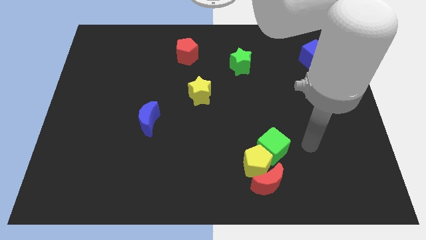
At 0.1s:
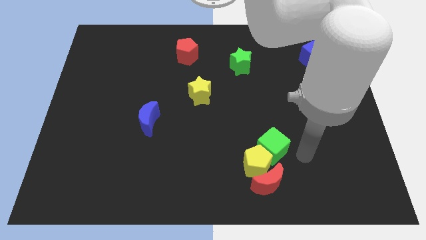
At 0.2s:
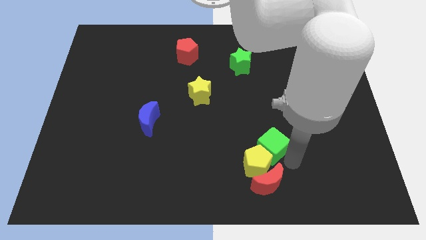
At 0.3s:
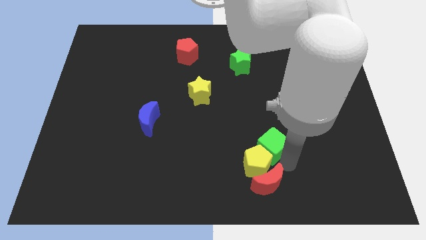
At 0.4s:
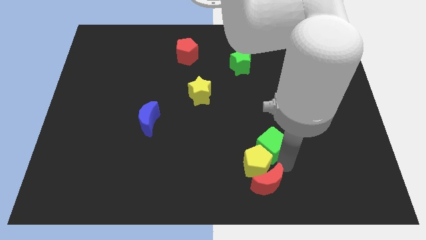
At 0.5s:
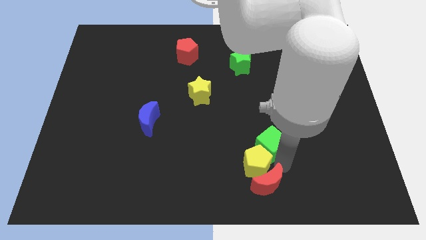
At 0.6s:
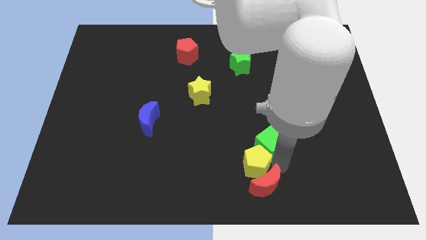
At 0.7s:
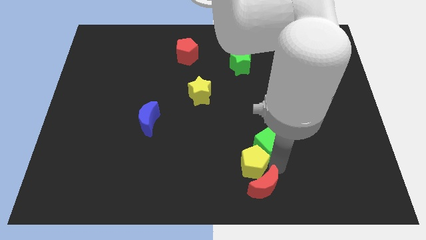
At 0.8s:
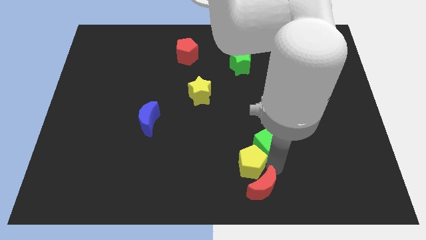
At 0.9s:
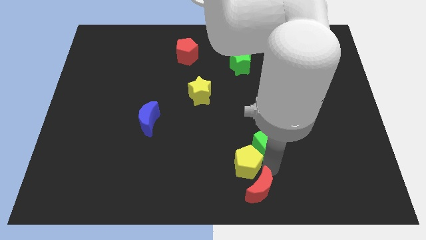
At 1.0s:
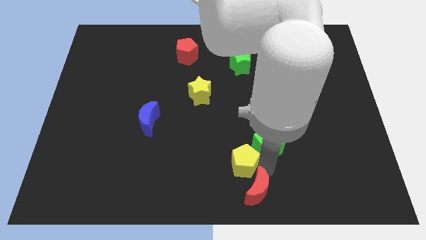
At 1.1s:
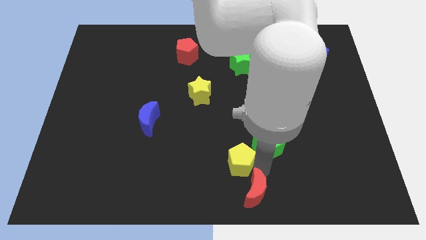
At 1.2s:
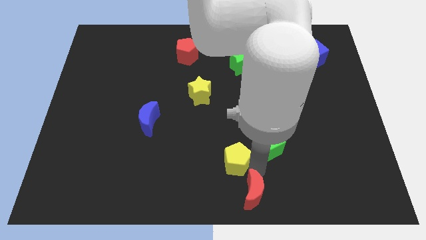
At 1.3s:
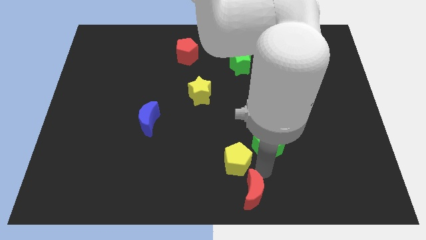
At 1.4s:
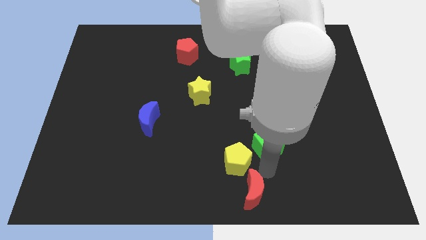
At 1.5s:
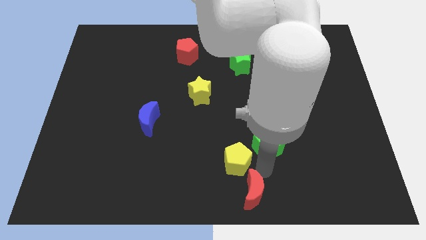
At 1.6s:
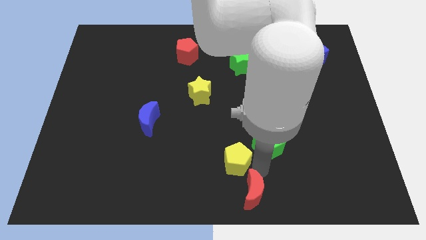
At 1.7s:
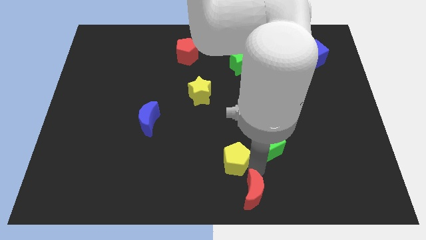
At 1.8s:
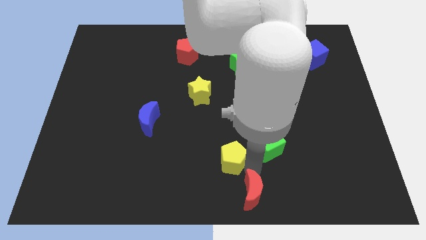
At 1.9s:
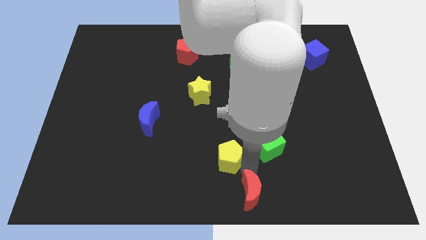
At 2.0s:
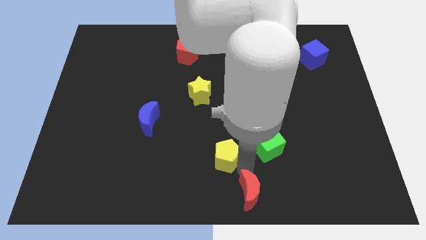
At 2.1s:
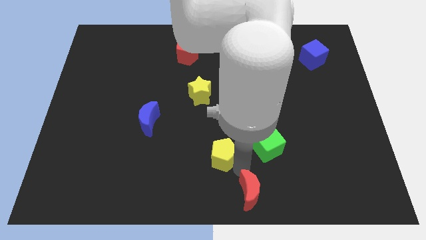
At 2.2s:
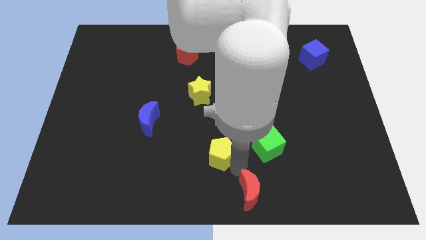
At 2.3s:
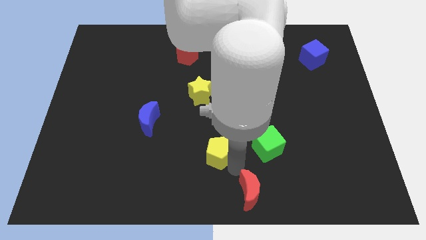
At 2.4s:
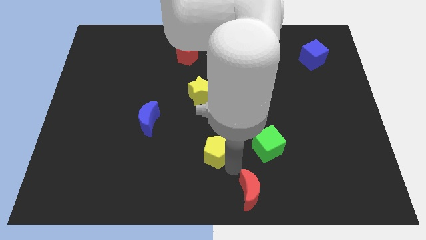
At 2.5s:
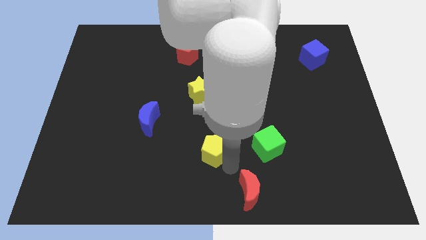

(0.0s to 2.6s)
move the yellow pentagon away from the red moon and green cube

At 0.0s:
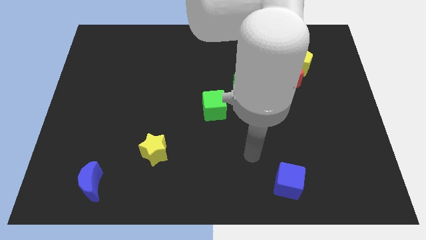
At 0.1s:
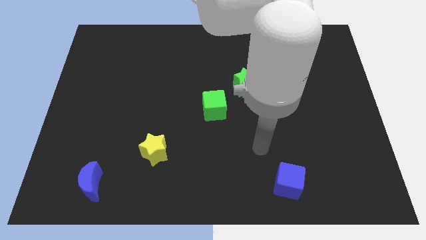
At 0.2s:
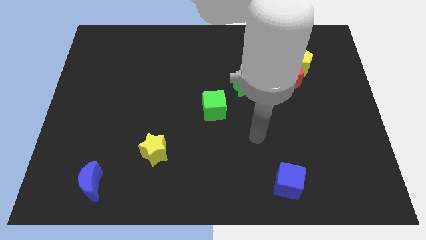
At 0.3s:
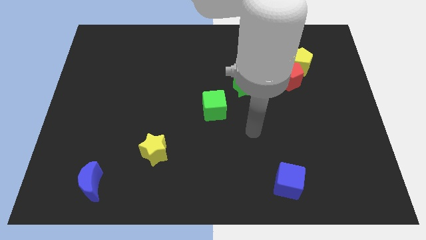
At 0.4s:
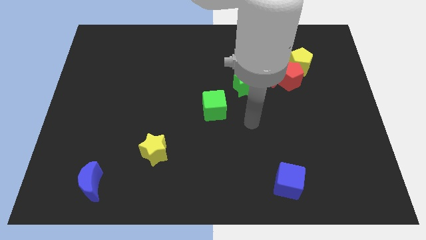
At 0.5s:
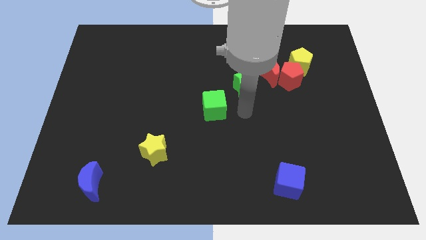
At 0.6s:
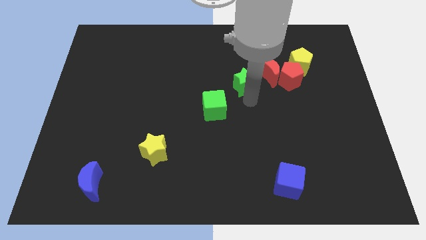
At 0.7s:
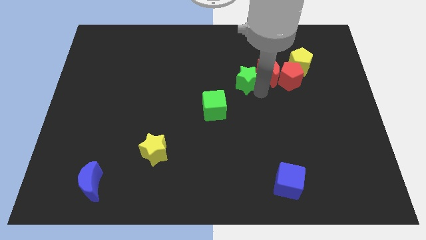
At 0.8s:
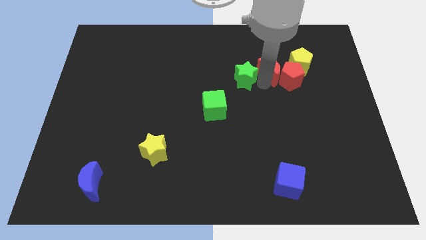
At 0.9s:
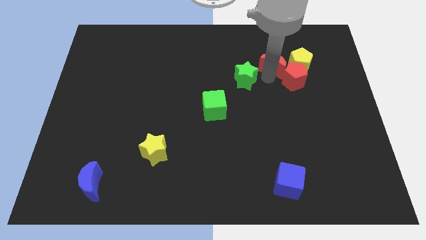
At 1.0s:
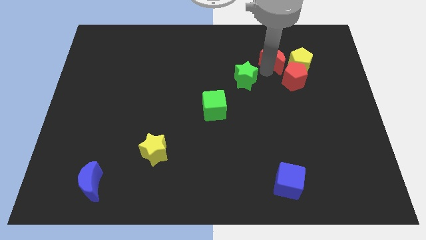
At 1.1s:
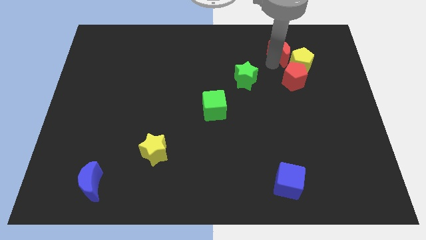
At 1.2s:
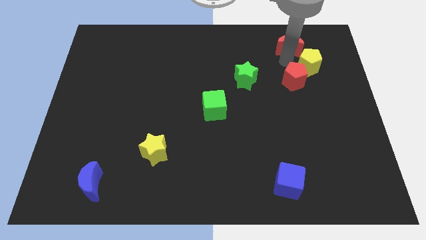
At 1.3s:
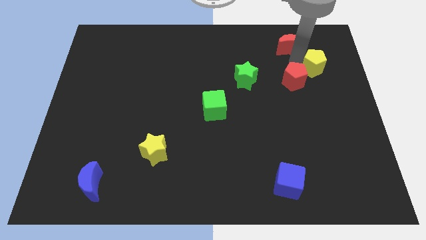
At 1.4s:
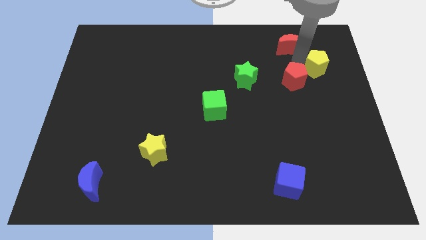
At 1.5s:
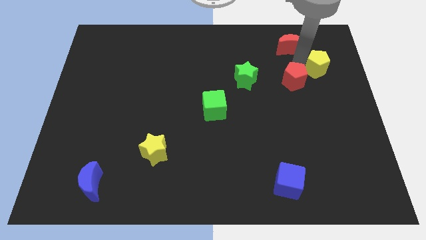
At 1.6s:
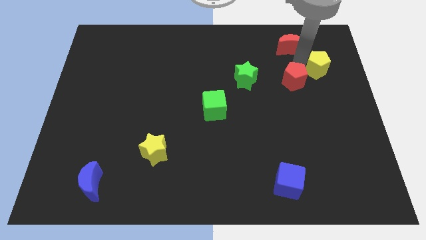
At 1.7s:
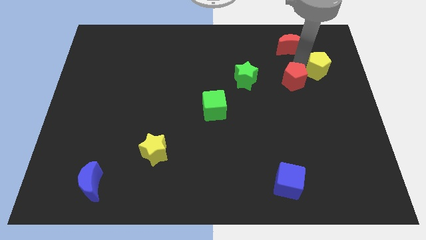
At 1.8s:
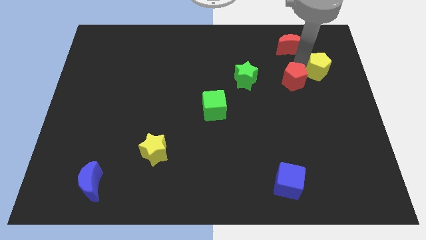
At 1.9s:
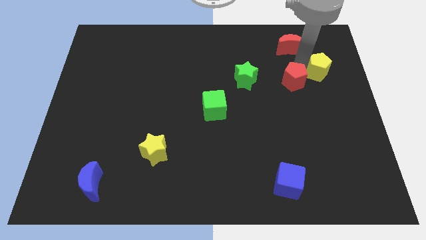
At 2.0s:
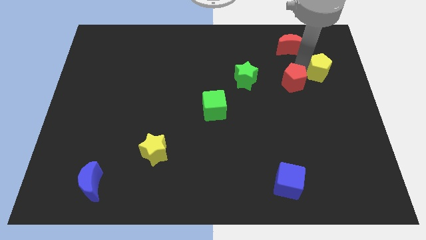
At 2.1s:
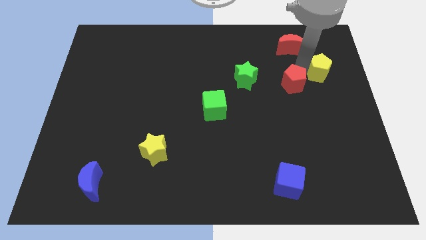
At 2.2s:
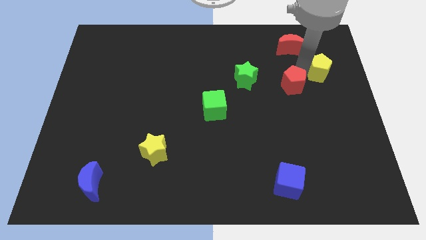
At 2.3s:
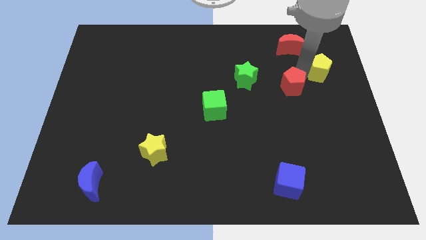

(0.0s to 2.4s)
move the red pentagon away from the red moon and yellow pentagon

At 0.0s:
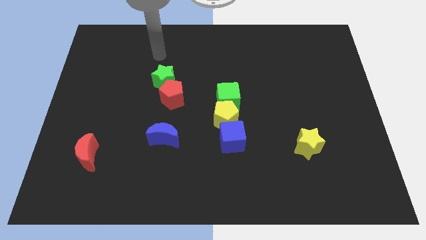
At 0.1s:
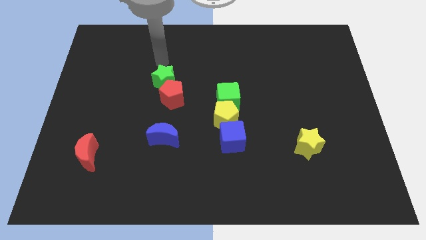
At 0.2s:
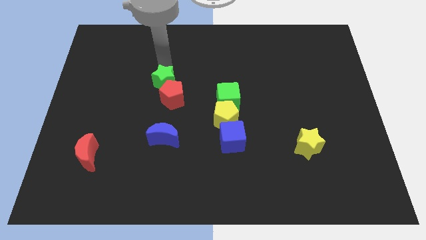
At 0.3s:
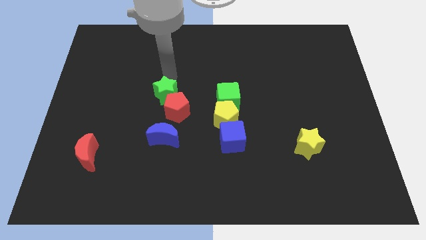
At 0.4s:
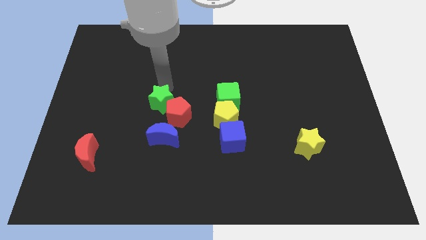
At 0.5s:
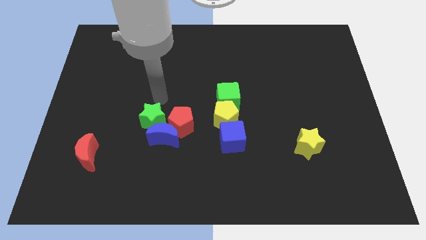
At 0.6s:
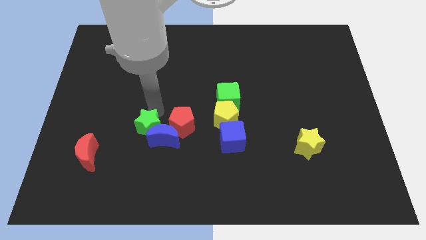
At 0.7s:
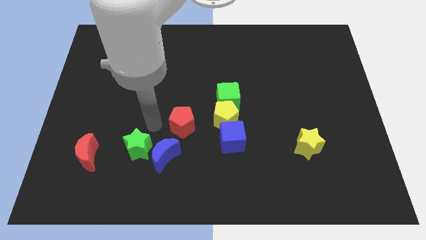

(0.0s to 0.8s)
separate the red pentagon from the green star

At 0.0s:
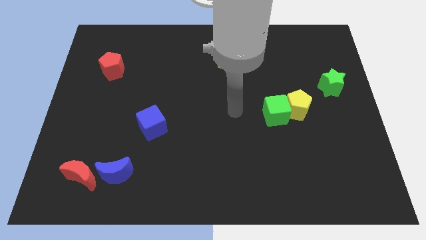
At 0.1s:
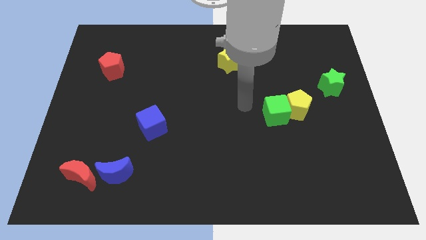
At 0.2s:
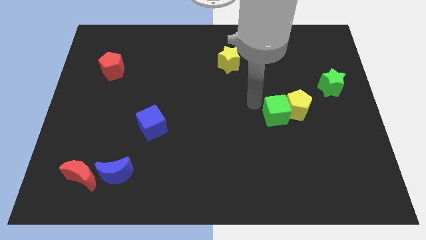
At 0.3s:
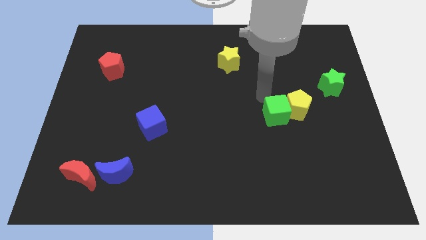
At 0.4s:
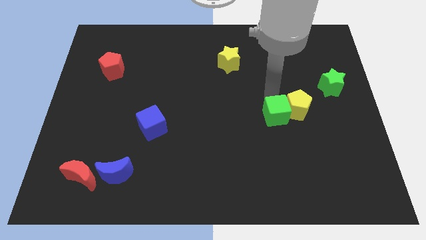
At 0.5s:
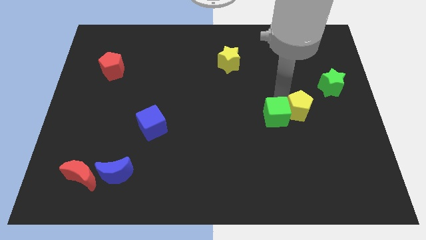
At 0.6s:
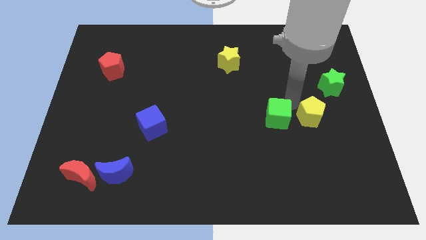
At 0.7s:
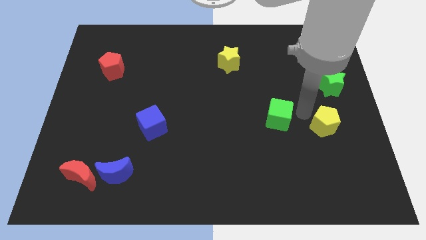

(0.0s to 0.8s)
pull the green cube apart from the yellow pentagon

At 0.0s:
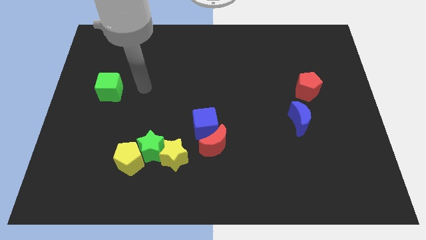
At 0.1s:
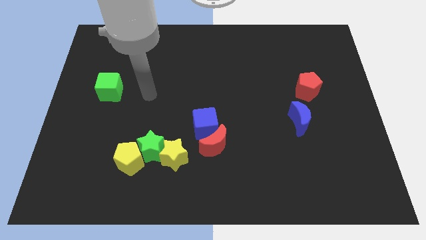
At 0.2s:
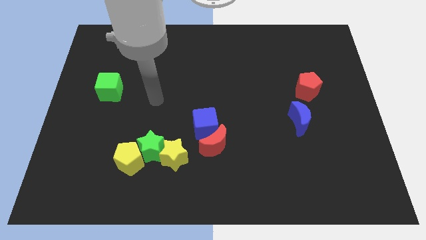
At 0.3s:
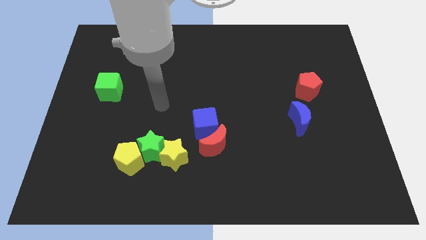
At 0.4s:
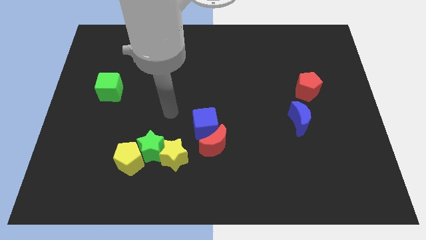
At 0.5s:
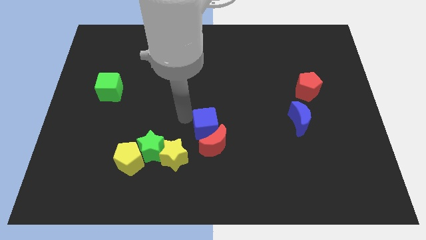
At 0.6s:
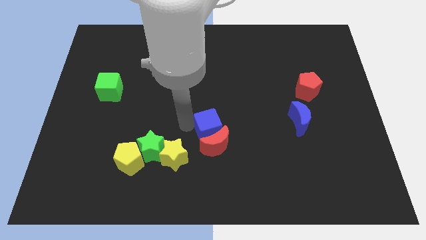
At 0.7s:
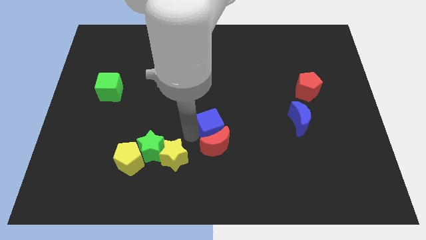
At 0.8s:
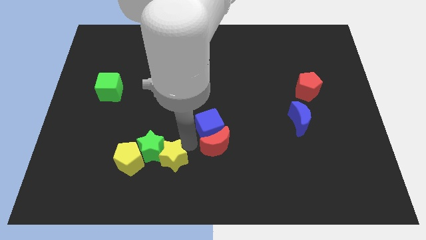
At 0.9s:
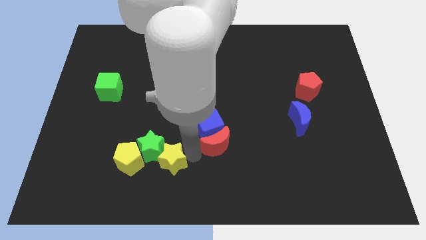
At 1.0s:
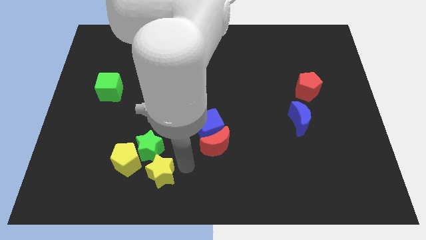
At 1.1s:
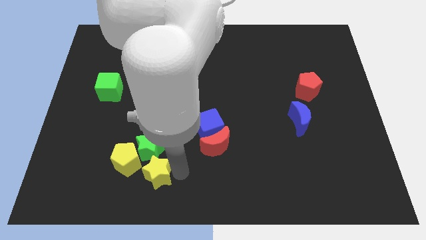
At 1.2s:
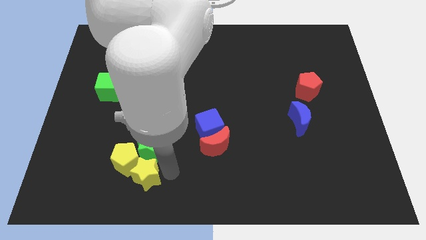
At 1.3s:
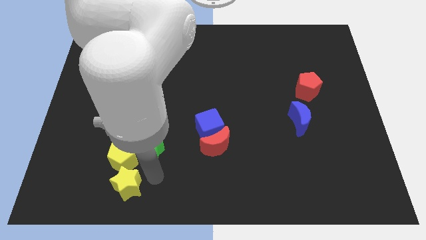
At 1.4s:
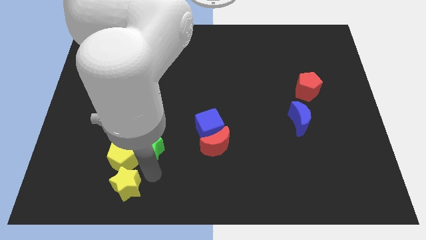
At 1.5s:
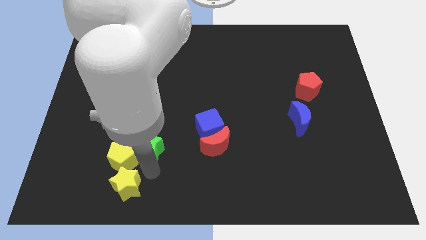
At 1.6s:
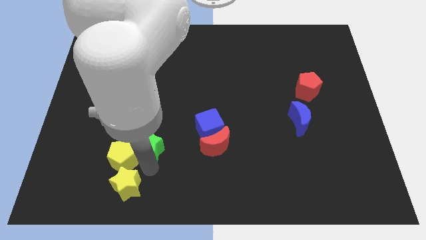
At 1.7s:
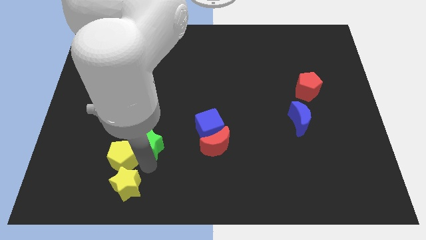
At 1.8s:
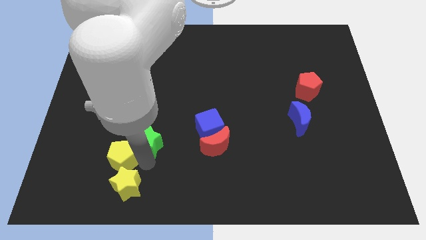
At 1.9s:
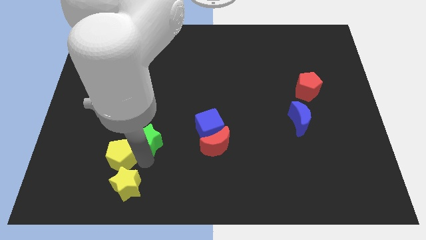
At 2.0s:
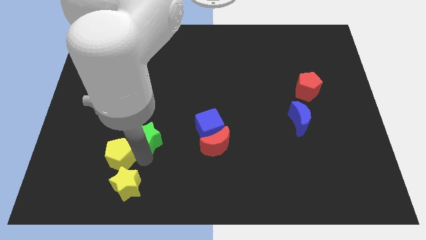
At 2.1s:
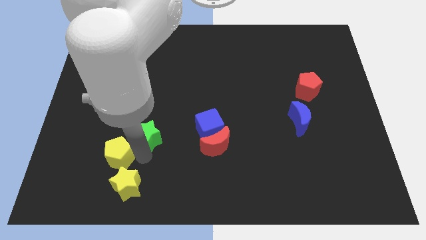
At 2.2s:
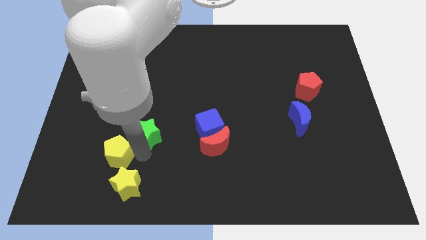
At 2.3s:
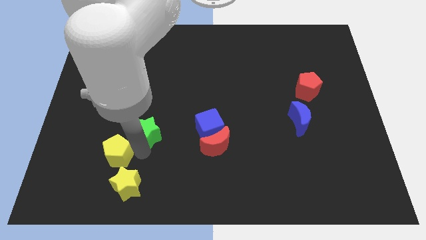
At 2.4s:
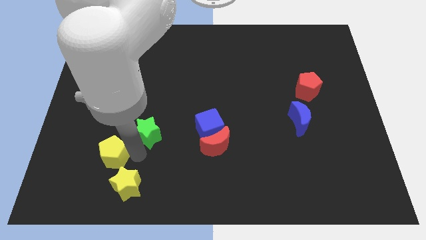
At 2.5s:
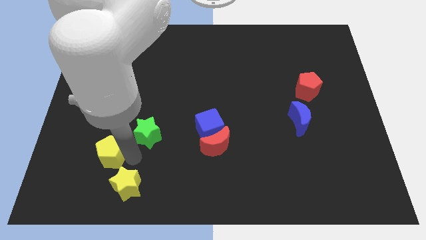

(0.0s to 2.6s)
pull the green star apart from the yellow pentagon and yellow star

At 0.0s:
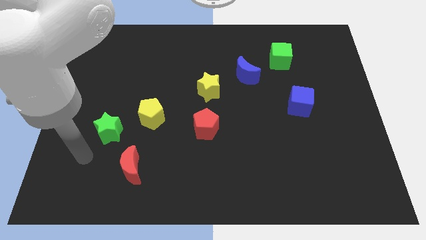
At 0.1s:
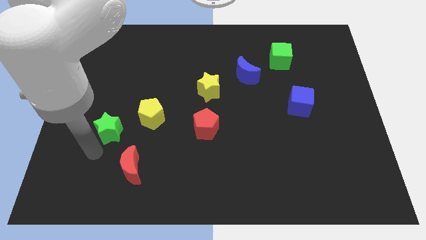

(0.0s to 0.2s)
move the green star away from the yellow pentagon
